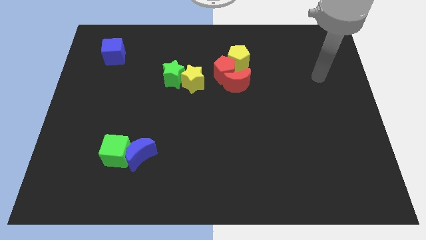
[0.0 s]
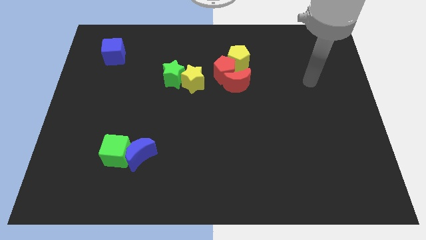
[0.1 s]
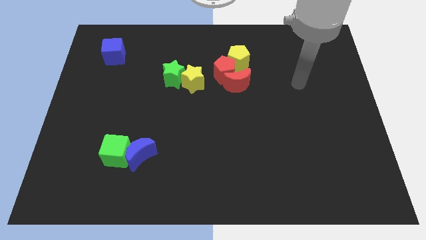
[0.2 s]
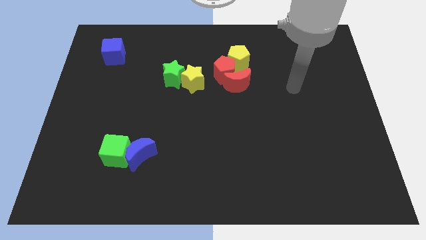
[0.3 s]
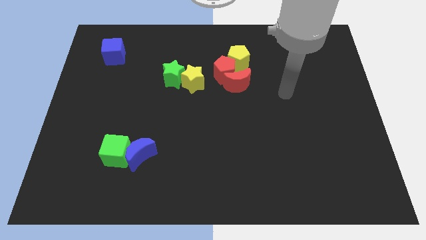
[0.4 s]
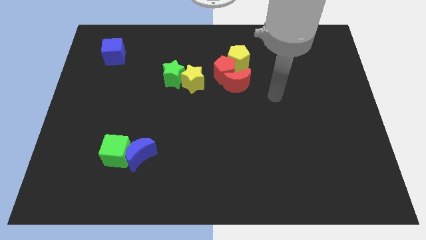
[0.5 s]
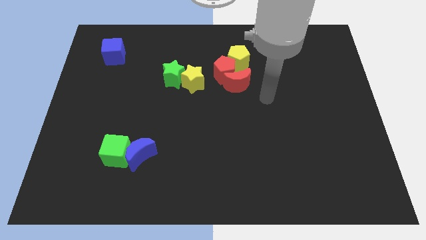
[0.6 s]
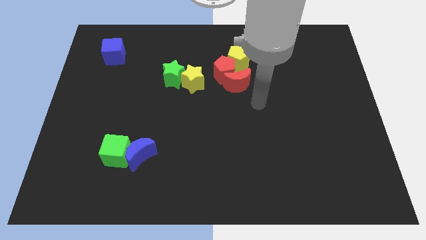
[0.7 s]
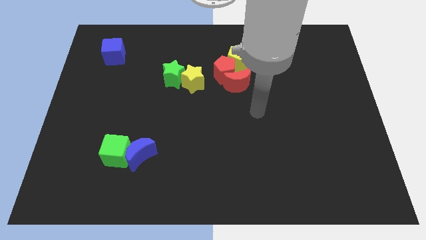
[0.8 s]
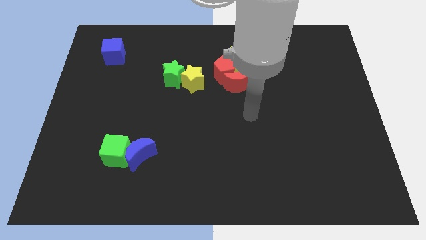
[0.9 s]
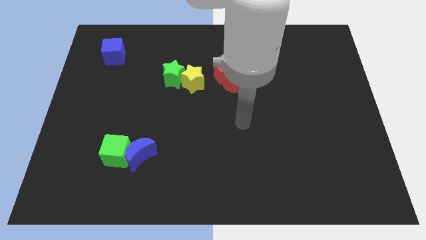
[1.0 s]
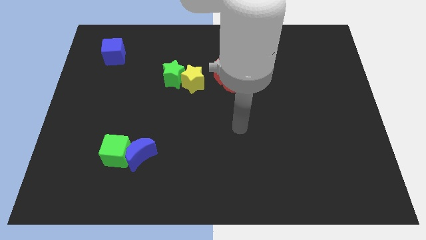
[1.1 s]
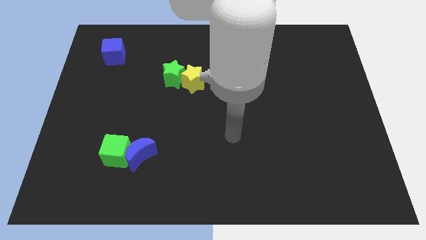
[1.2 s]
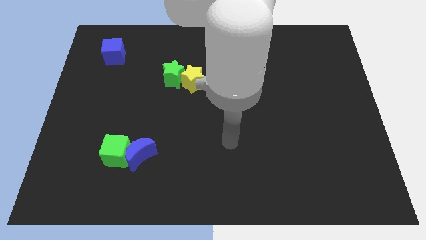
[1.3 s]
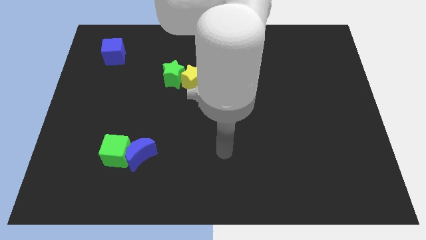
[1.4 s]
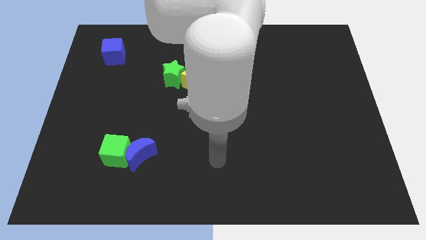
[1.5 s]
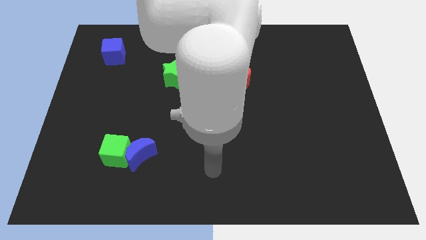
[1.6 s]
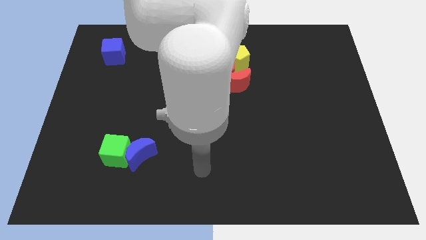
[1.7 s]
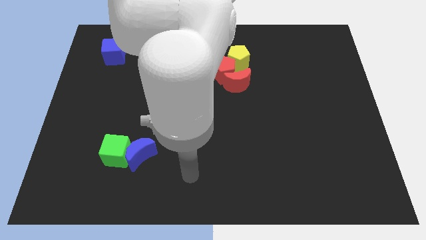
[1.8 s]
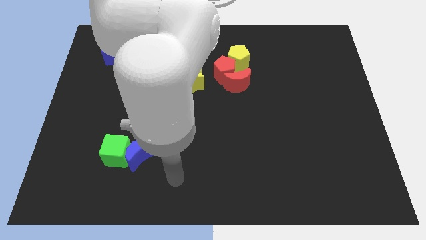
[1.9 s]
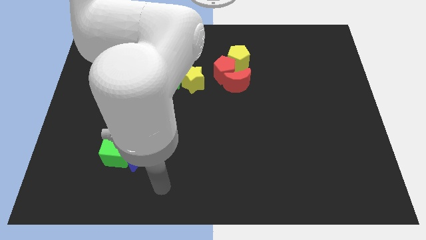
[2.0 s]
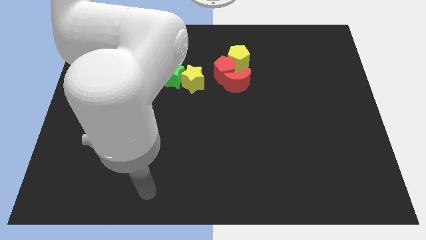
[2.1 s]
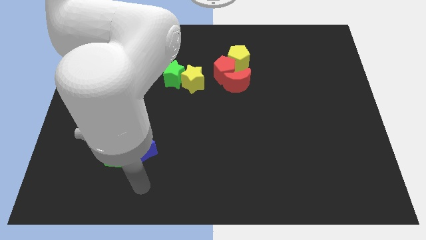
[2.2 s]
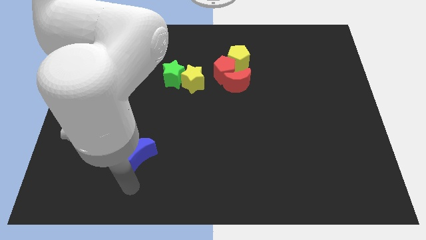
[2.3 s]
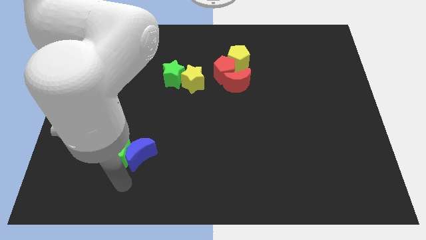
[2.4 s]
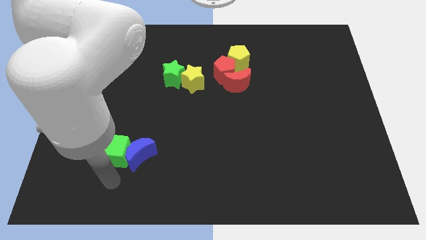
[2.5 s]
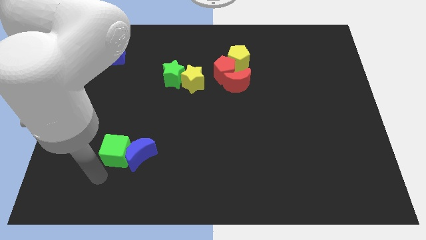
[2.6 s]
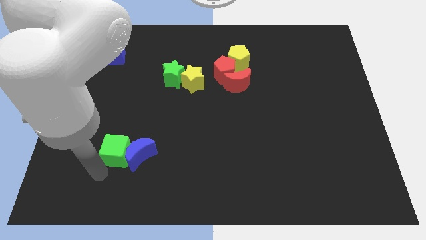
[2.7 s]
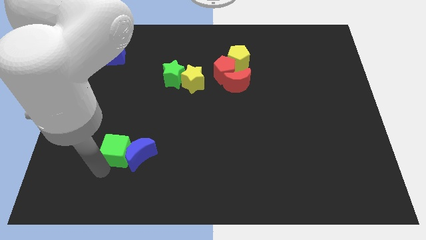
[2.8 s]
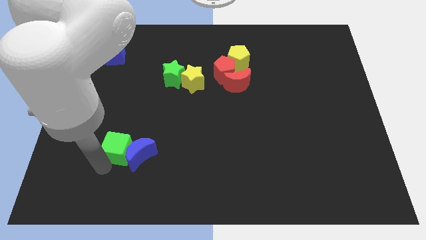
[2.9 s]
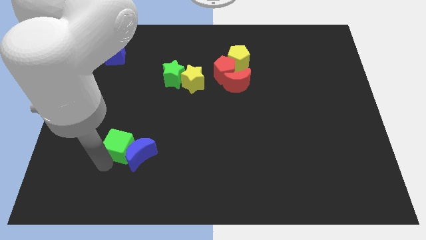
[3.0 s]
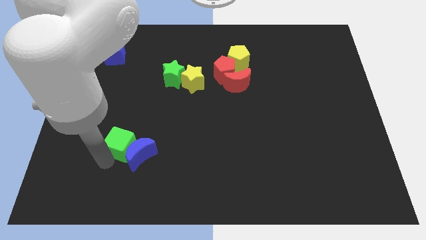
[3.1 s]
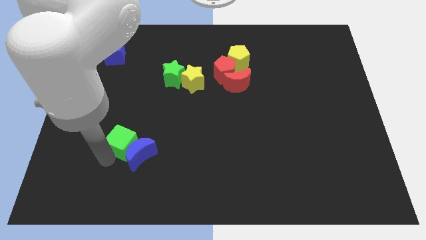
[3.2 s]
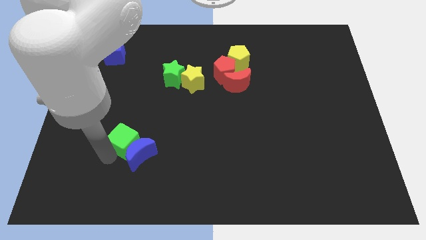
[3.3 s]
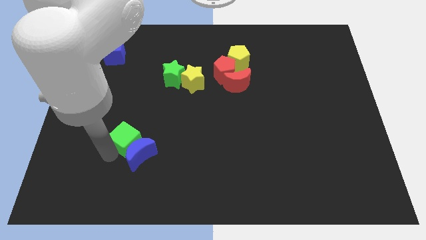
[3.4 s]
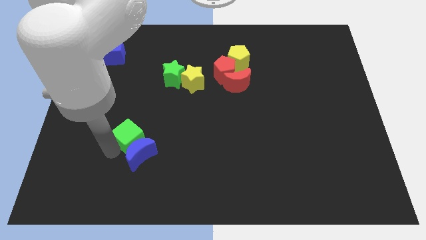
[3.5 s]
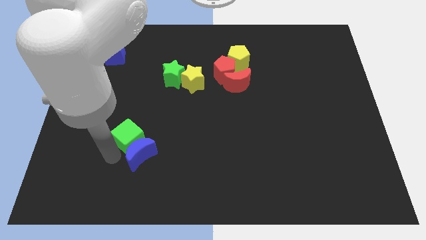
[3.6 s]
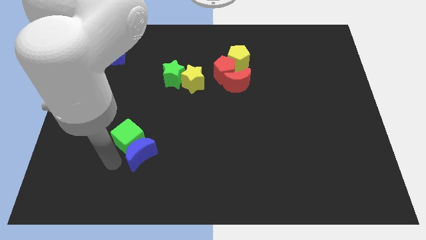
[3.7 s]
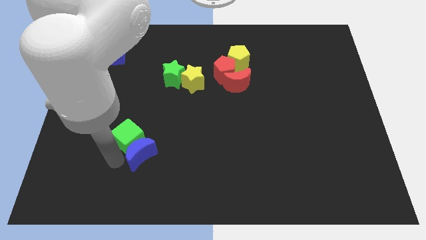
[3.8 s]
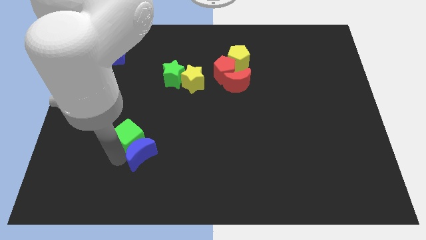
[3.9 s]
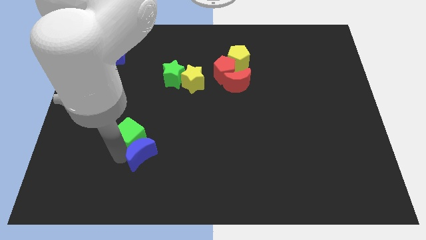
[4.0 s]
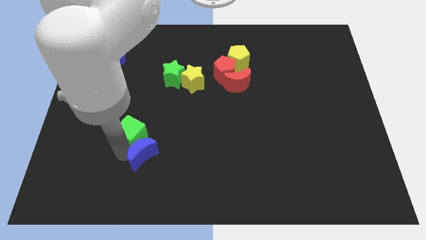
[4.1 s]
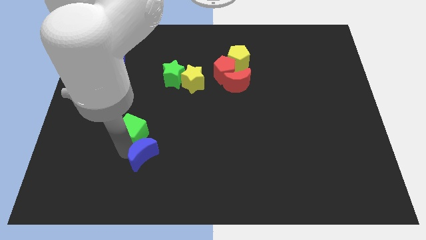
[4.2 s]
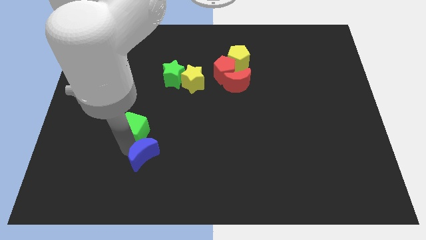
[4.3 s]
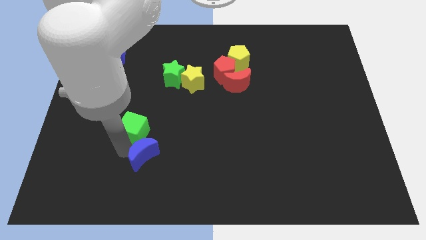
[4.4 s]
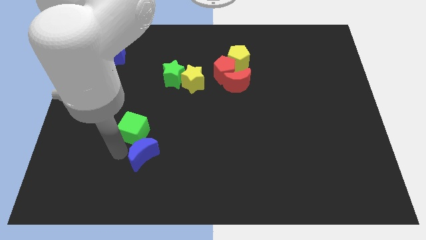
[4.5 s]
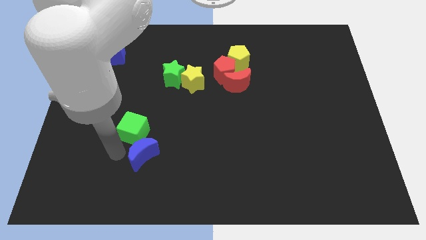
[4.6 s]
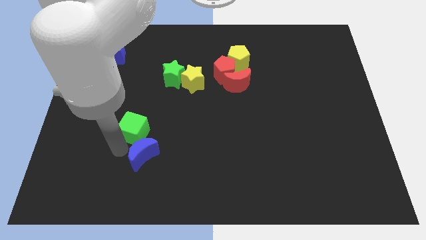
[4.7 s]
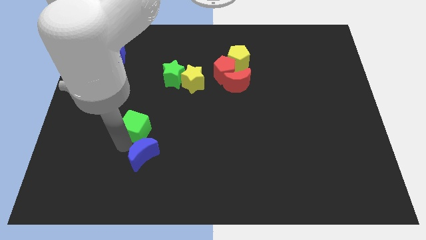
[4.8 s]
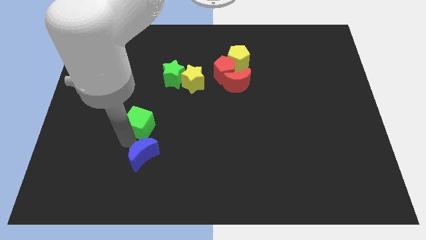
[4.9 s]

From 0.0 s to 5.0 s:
move the green cube upwards and then to the right somewhat

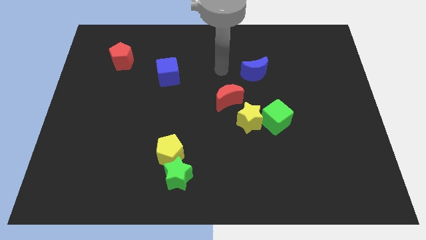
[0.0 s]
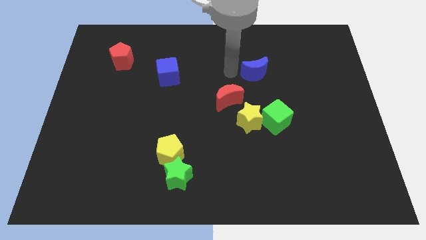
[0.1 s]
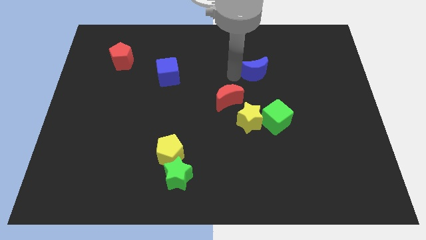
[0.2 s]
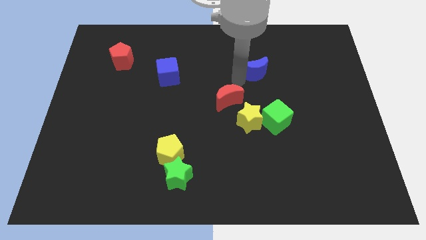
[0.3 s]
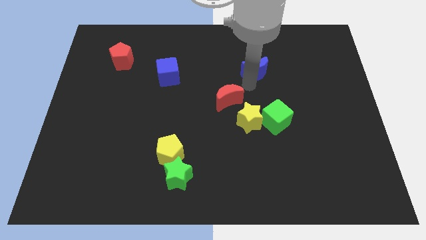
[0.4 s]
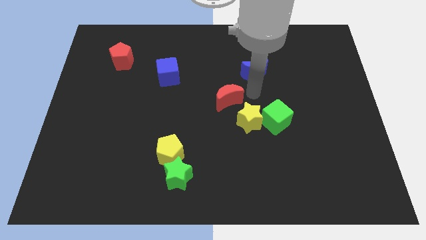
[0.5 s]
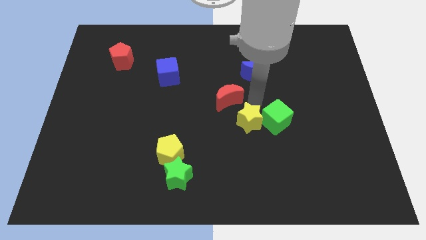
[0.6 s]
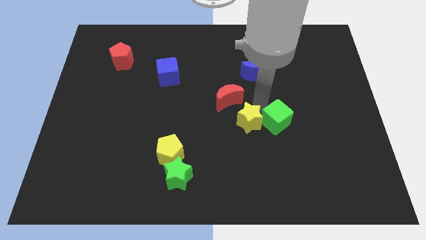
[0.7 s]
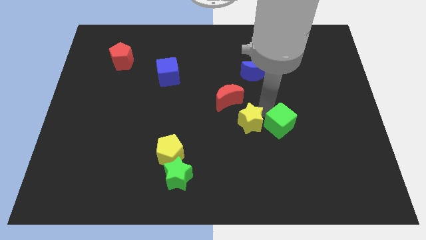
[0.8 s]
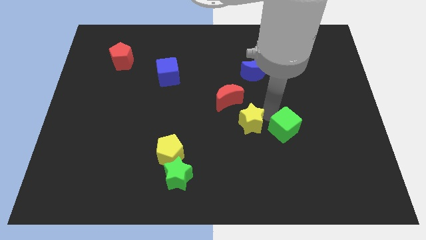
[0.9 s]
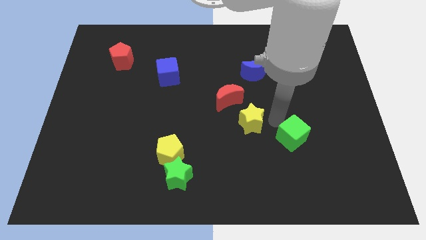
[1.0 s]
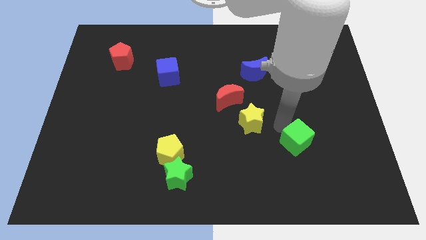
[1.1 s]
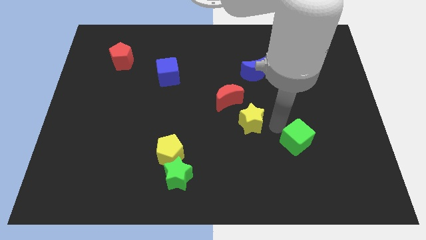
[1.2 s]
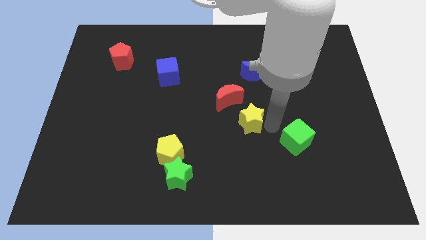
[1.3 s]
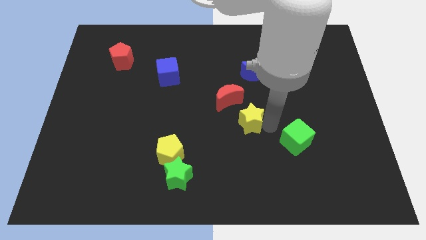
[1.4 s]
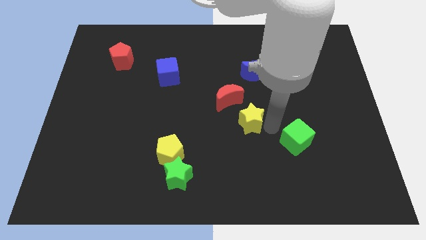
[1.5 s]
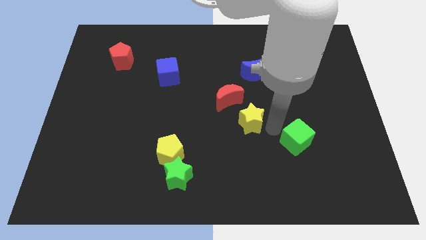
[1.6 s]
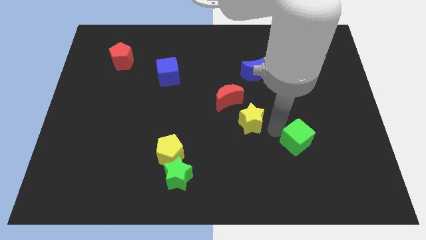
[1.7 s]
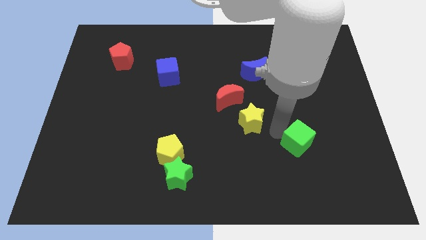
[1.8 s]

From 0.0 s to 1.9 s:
slide the green cube slightly diagonally downwards and to the right

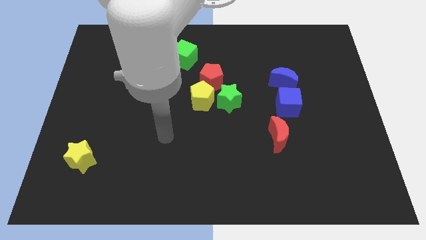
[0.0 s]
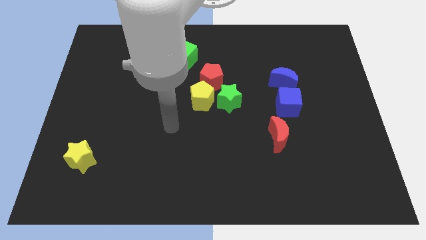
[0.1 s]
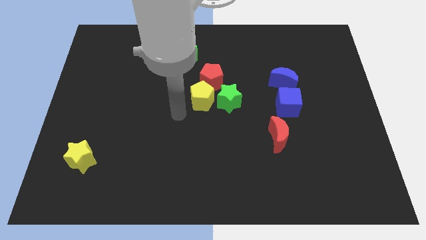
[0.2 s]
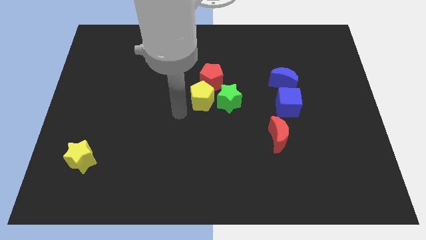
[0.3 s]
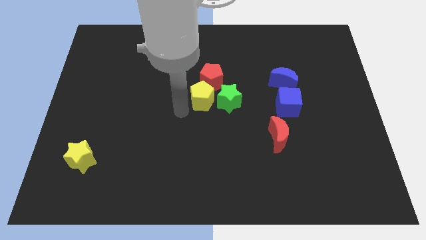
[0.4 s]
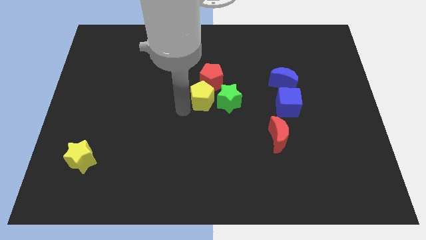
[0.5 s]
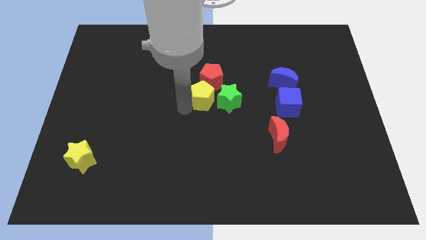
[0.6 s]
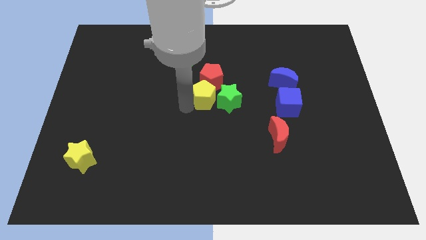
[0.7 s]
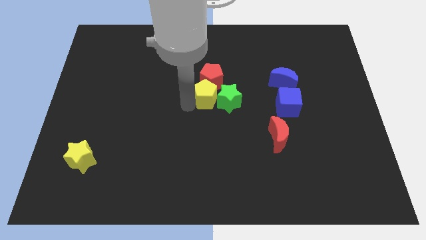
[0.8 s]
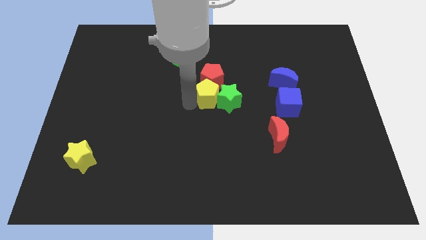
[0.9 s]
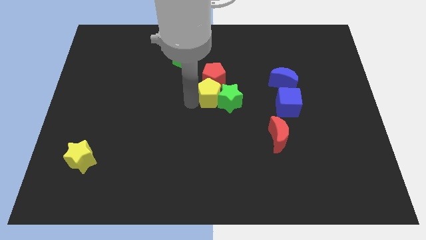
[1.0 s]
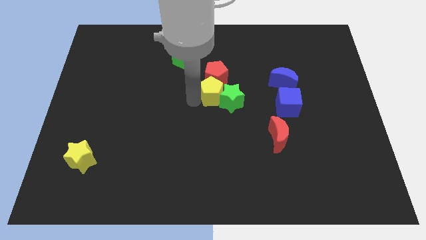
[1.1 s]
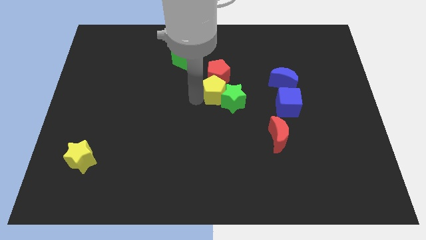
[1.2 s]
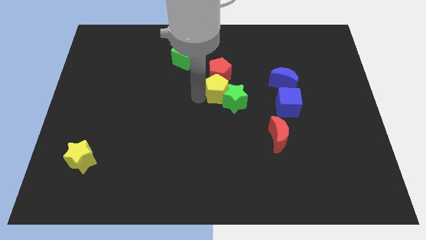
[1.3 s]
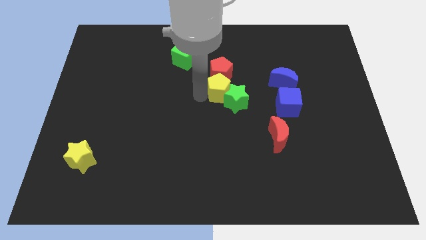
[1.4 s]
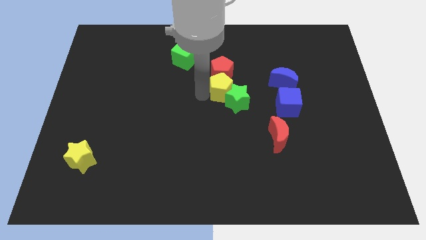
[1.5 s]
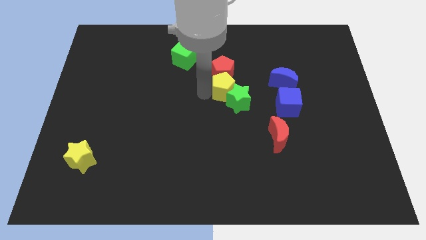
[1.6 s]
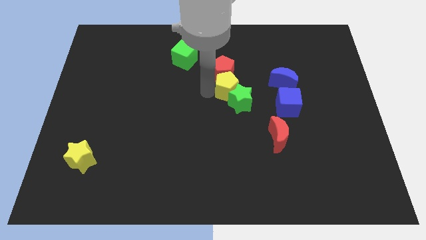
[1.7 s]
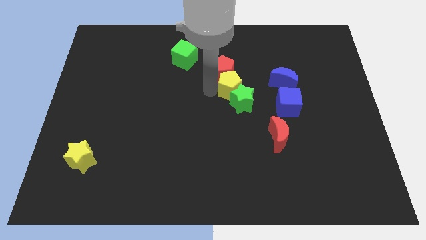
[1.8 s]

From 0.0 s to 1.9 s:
slide the yellow pentagon up and right a little

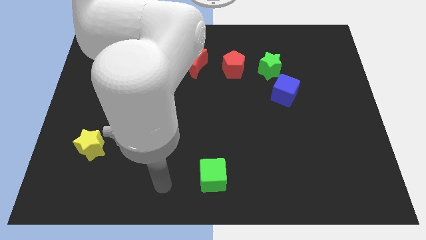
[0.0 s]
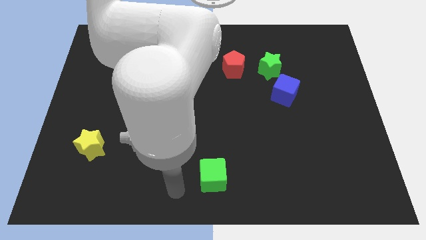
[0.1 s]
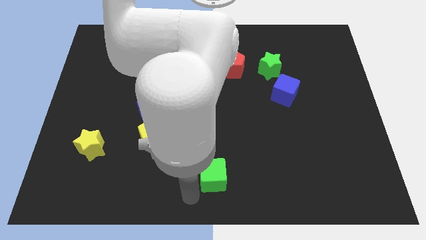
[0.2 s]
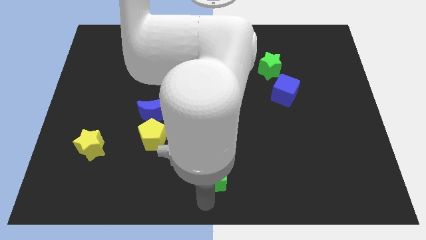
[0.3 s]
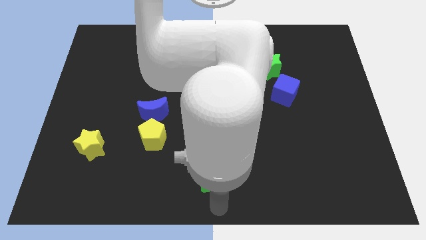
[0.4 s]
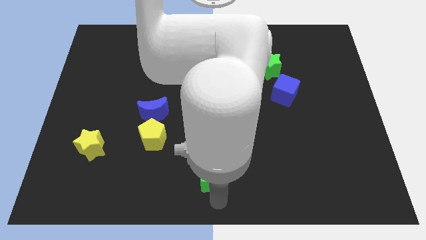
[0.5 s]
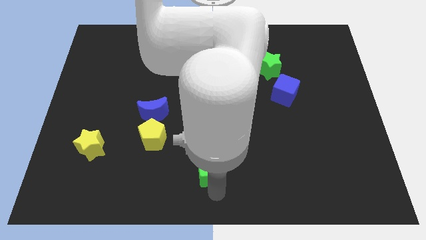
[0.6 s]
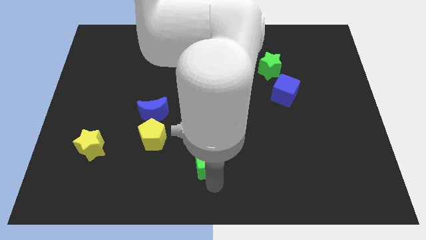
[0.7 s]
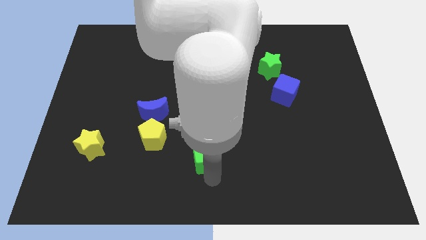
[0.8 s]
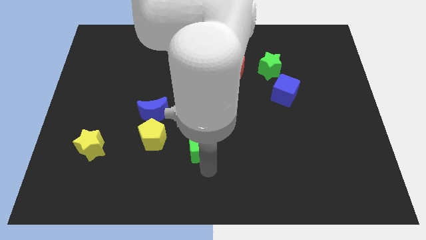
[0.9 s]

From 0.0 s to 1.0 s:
push the green cube a bit up
